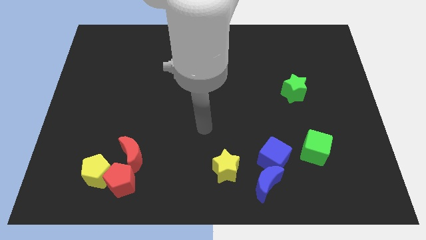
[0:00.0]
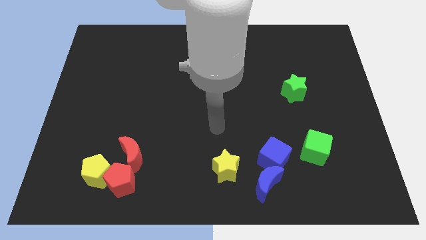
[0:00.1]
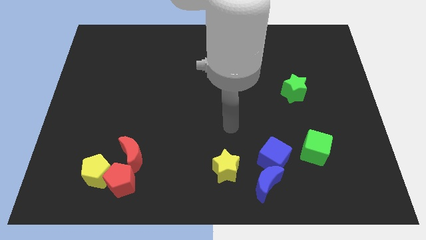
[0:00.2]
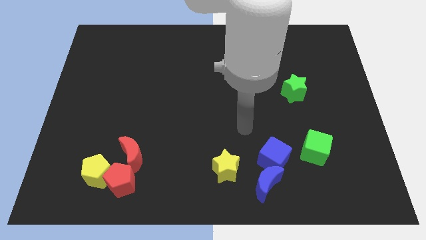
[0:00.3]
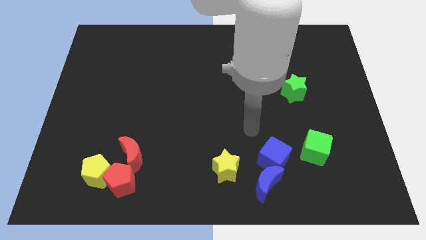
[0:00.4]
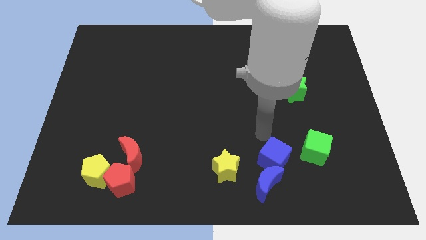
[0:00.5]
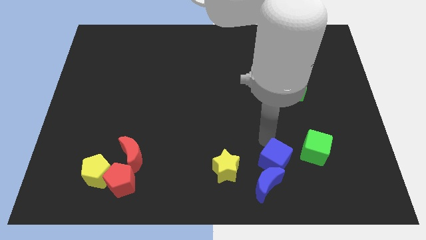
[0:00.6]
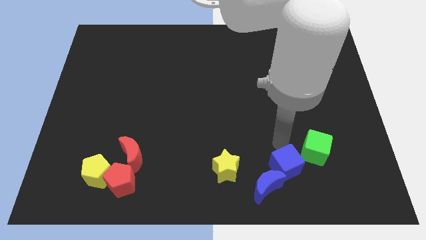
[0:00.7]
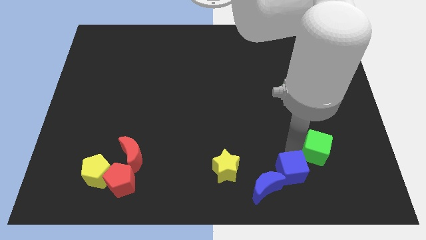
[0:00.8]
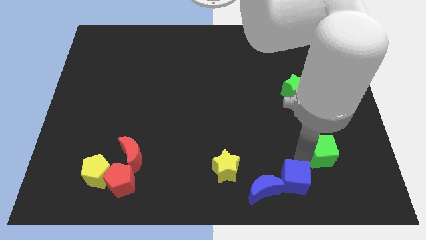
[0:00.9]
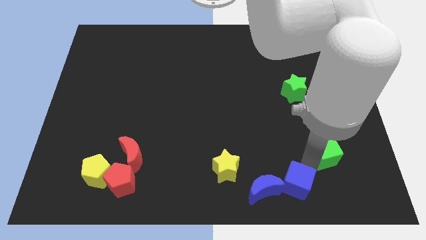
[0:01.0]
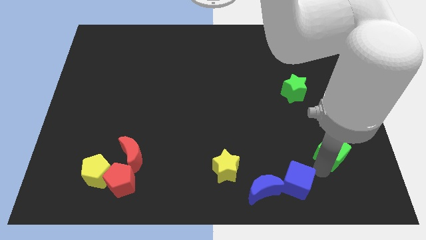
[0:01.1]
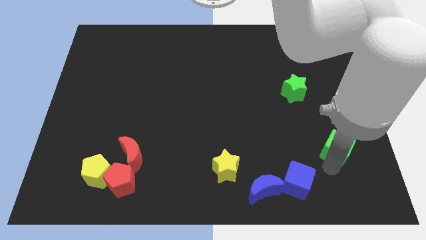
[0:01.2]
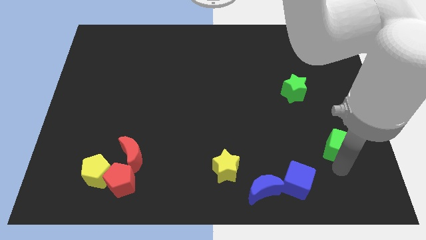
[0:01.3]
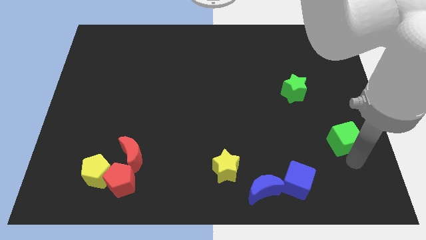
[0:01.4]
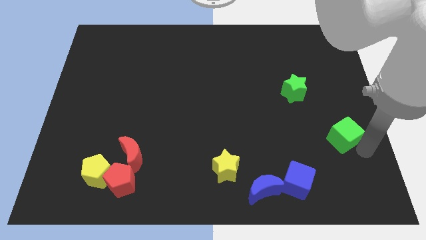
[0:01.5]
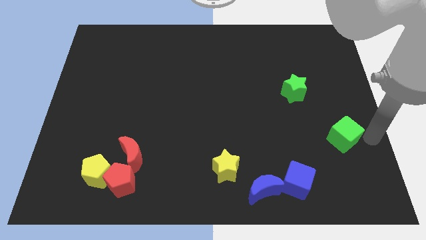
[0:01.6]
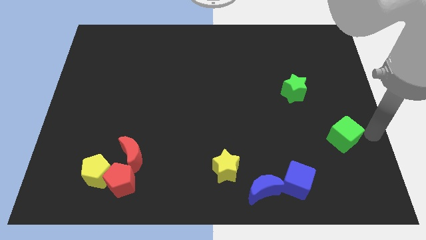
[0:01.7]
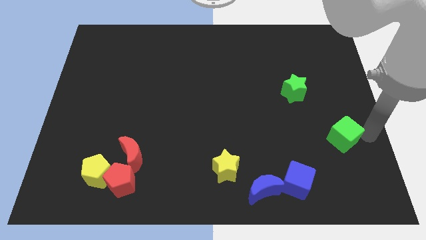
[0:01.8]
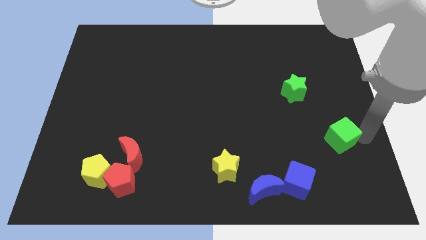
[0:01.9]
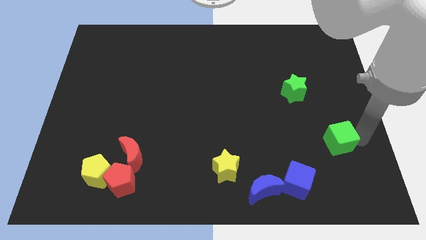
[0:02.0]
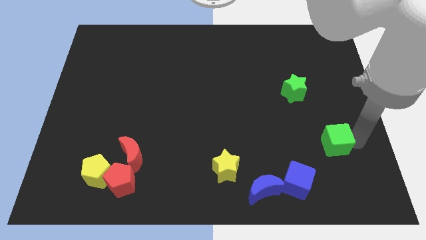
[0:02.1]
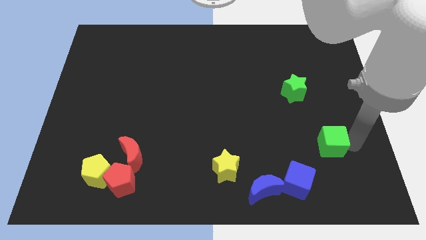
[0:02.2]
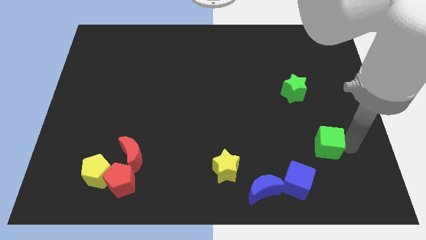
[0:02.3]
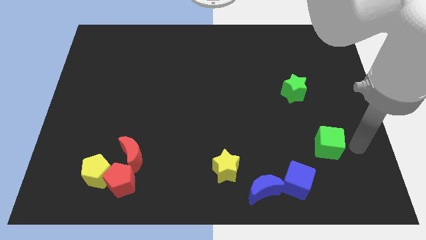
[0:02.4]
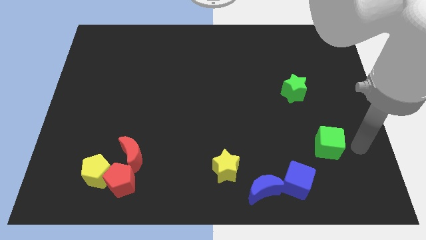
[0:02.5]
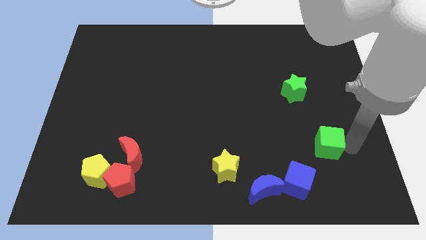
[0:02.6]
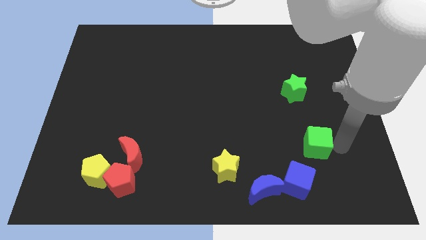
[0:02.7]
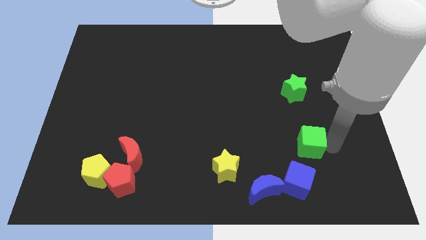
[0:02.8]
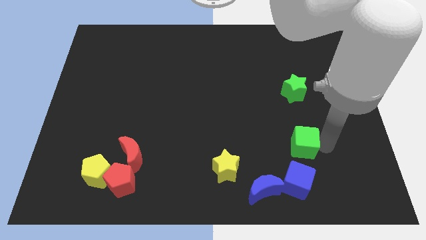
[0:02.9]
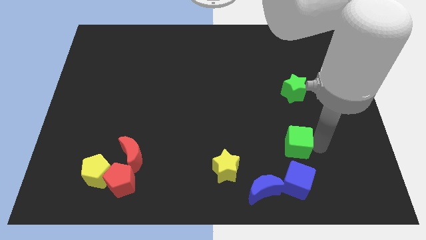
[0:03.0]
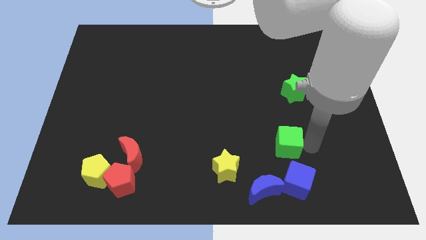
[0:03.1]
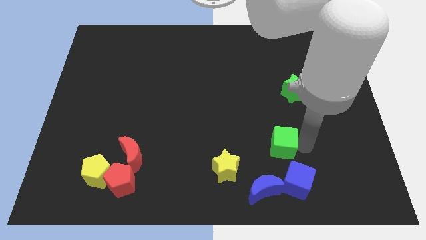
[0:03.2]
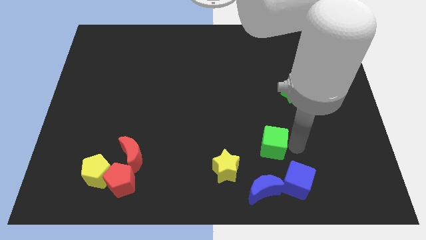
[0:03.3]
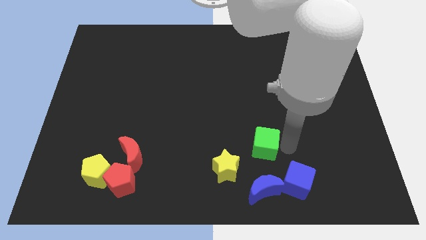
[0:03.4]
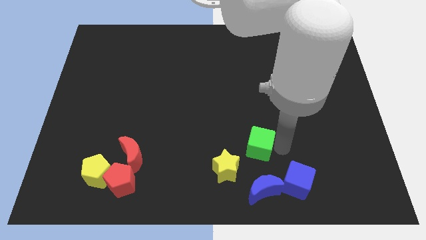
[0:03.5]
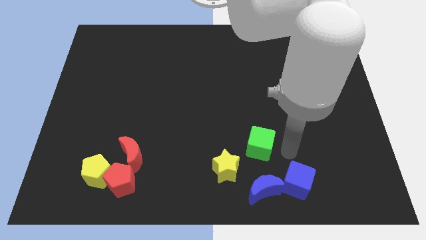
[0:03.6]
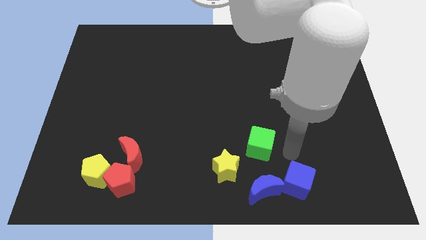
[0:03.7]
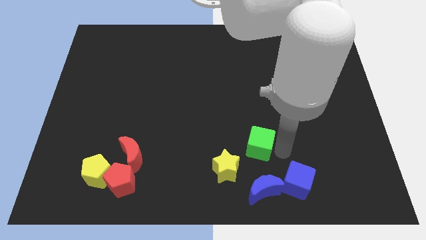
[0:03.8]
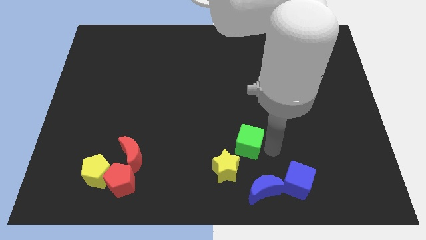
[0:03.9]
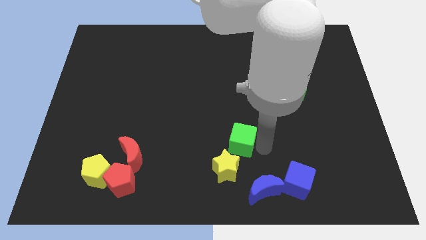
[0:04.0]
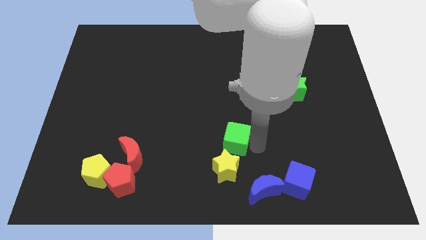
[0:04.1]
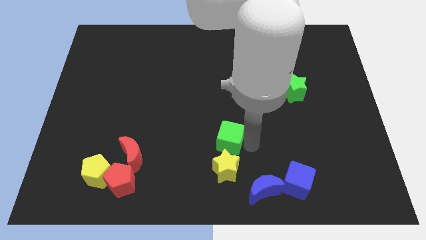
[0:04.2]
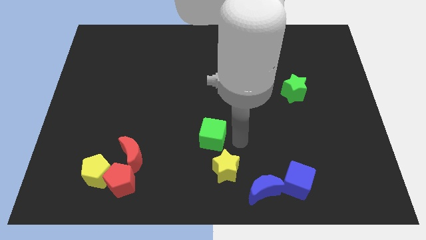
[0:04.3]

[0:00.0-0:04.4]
push the green cube left

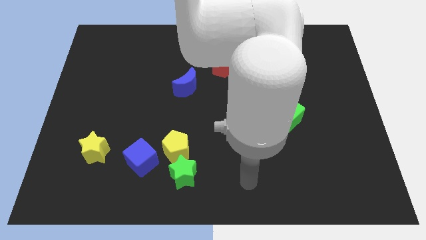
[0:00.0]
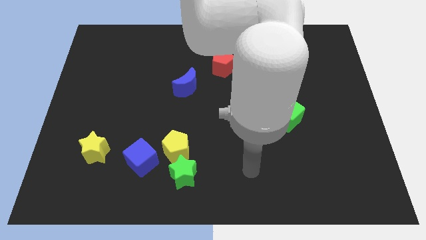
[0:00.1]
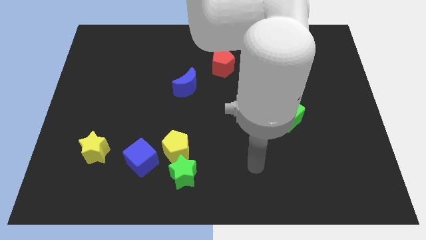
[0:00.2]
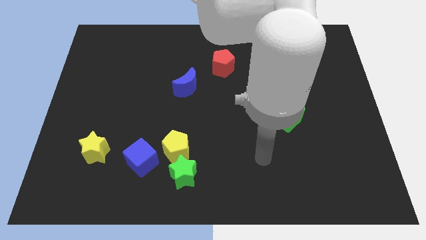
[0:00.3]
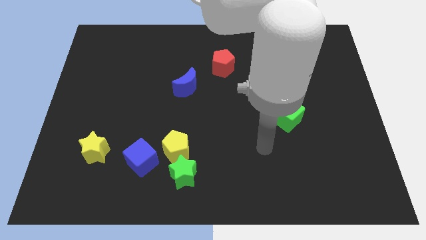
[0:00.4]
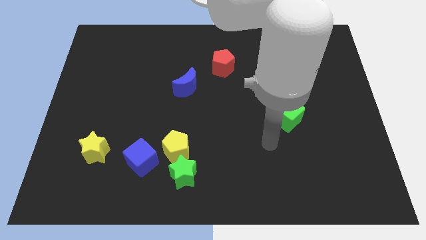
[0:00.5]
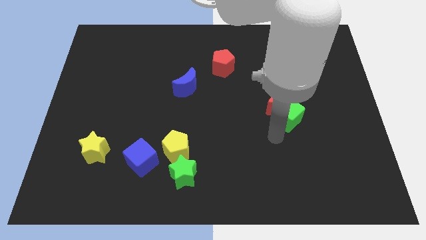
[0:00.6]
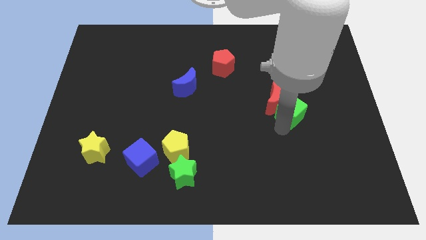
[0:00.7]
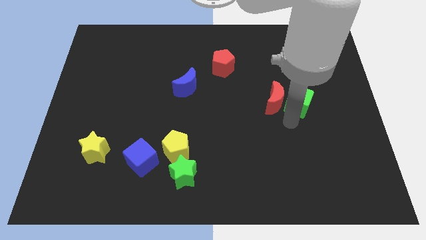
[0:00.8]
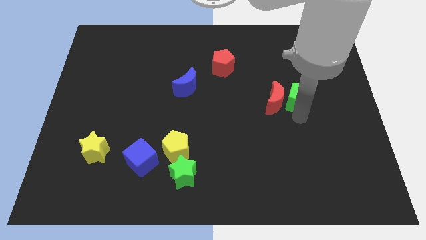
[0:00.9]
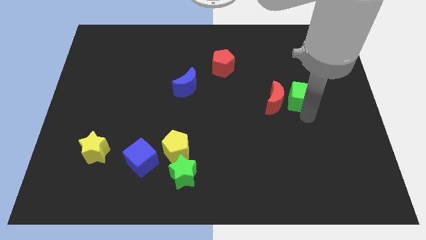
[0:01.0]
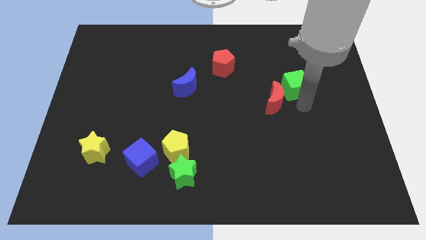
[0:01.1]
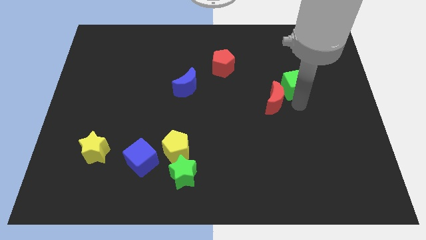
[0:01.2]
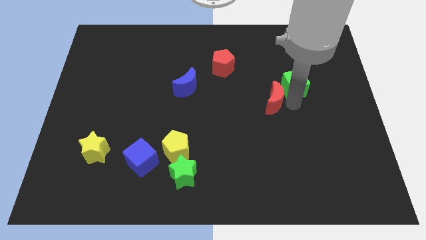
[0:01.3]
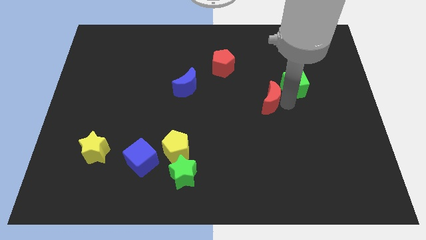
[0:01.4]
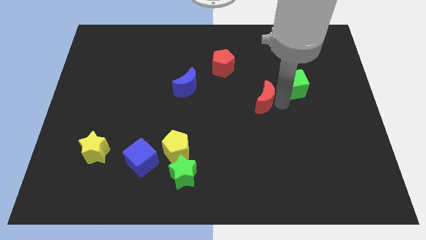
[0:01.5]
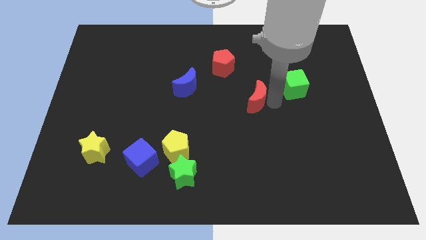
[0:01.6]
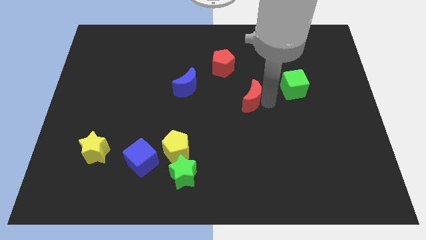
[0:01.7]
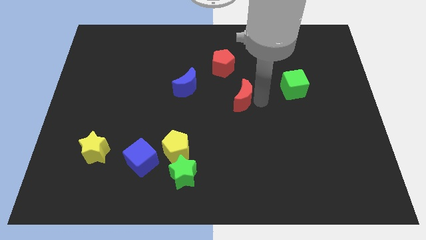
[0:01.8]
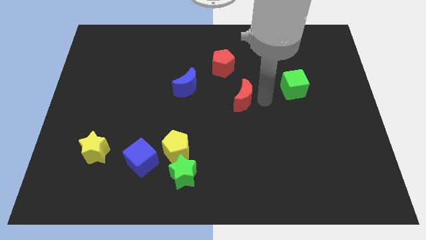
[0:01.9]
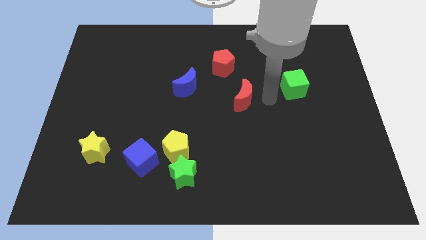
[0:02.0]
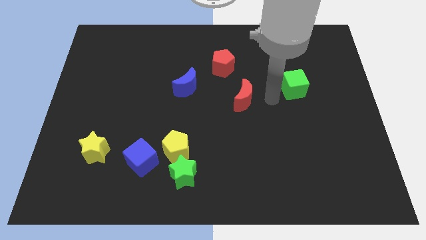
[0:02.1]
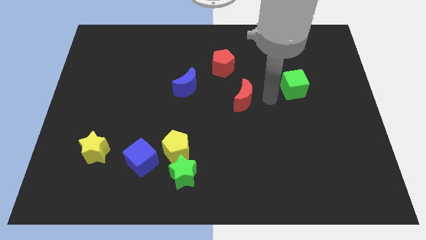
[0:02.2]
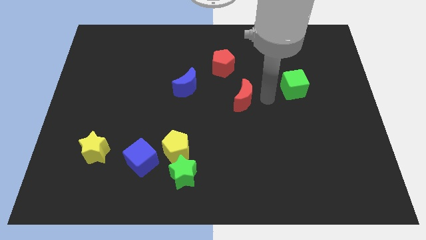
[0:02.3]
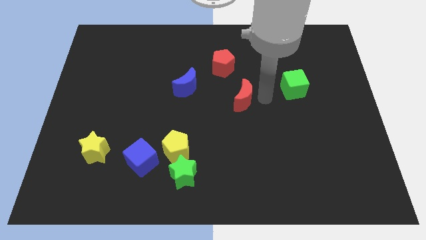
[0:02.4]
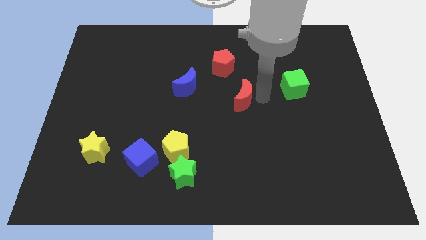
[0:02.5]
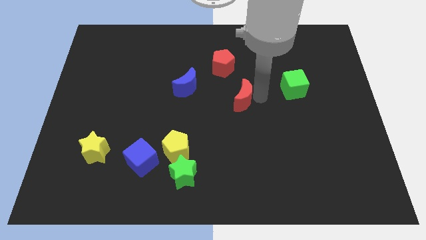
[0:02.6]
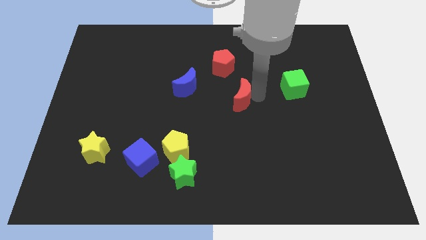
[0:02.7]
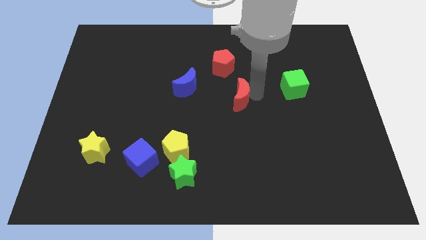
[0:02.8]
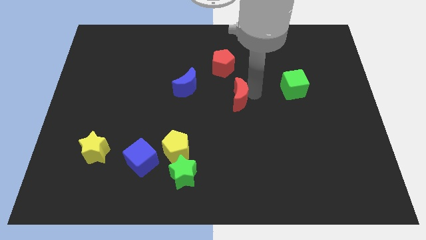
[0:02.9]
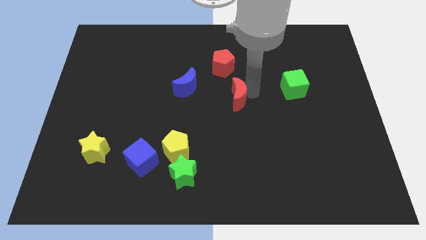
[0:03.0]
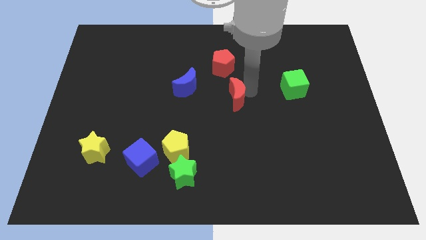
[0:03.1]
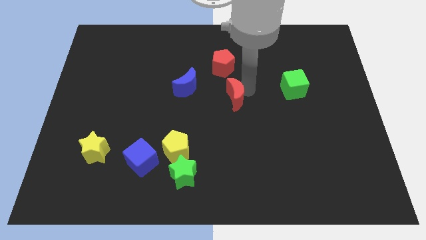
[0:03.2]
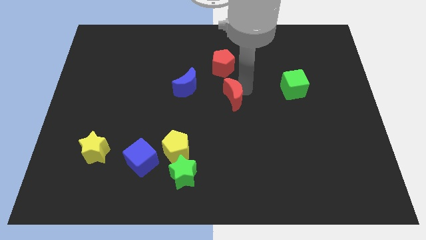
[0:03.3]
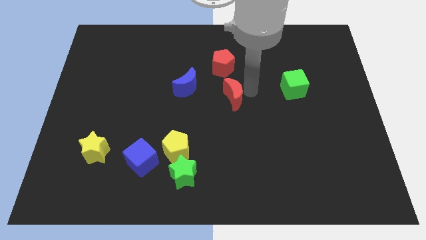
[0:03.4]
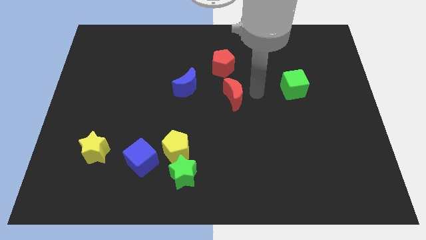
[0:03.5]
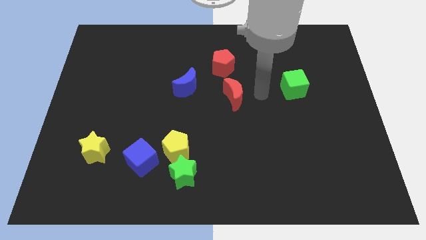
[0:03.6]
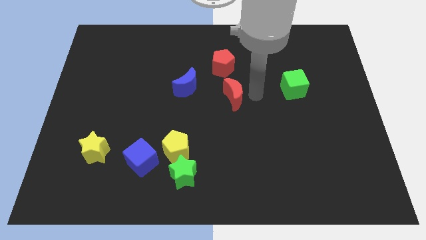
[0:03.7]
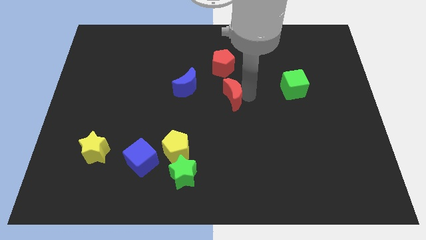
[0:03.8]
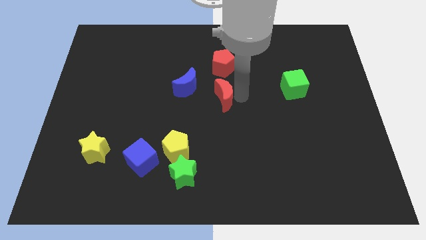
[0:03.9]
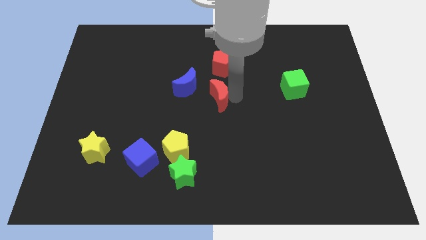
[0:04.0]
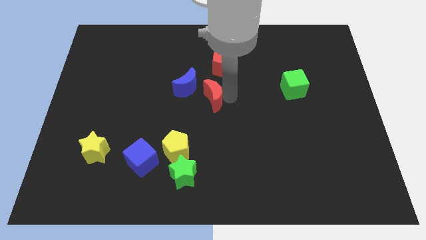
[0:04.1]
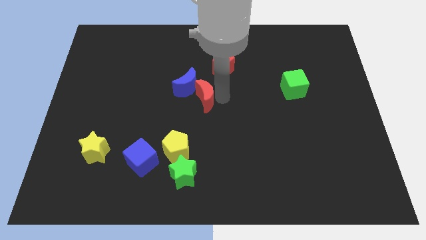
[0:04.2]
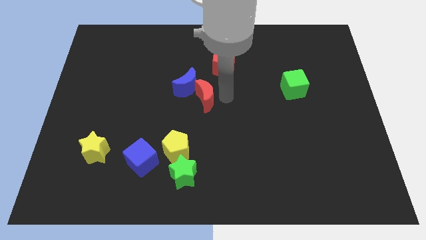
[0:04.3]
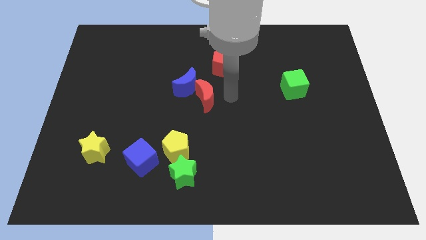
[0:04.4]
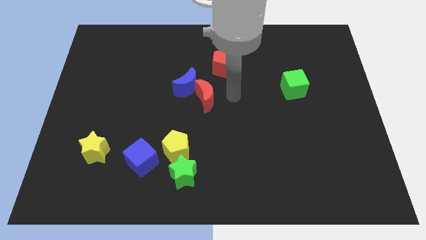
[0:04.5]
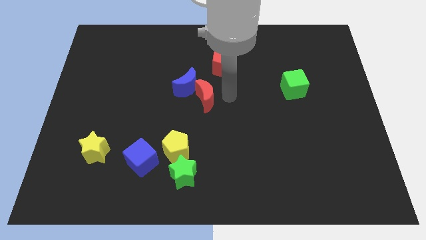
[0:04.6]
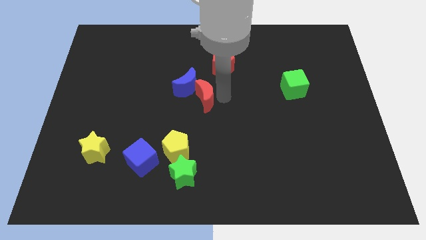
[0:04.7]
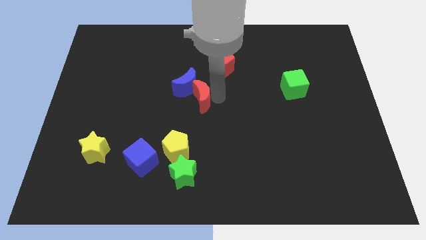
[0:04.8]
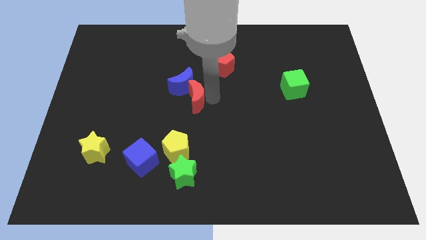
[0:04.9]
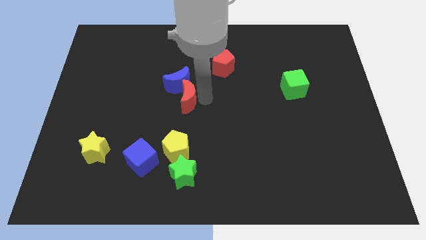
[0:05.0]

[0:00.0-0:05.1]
move the red moon left
